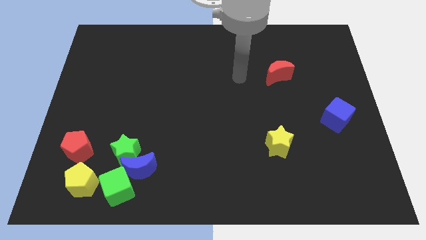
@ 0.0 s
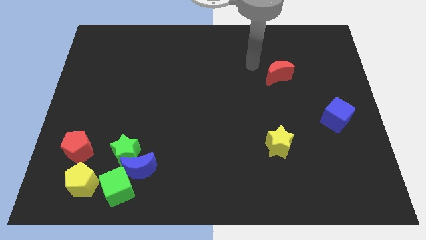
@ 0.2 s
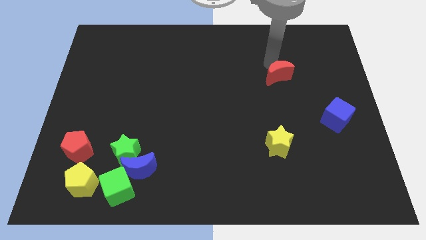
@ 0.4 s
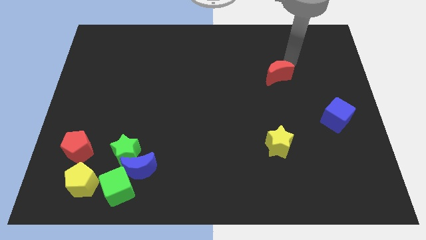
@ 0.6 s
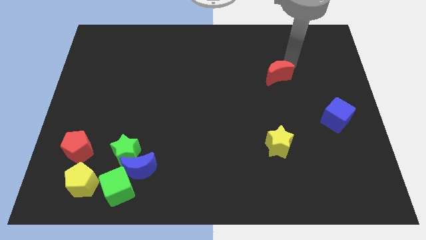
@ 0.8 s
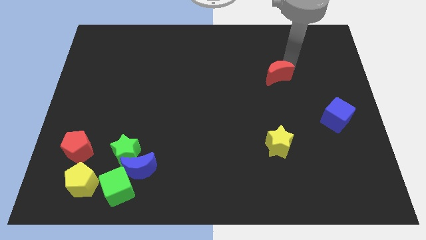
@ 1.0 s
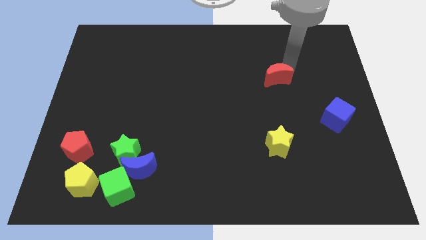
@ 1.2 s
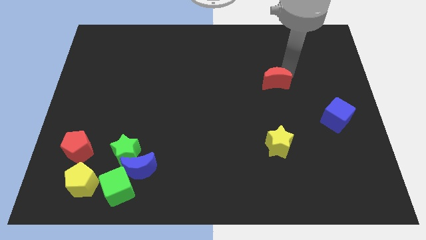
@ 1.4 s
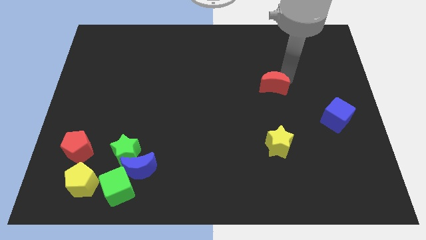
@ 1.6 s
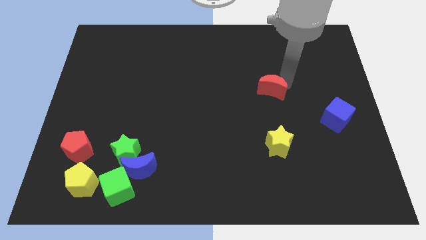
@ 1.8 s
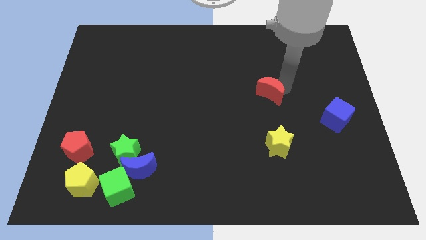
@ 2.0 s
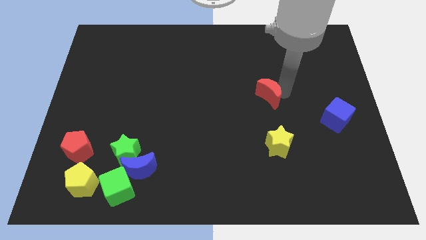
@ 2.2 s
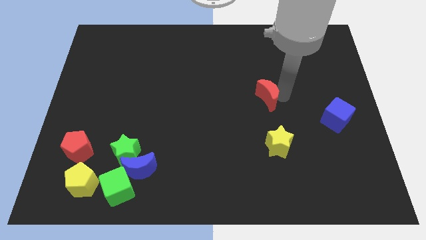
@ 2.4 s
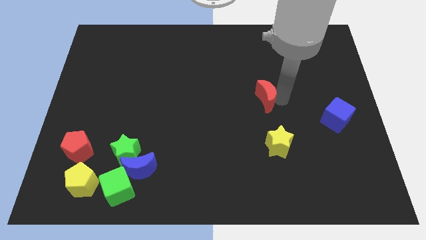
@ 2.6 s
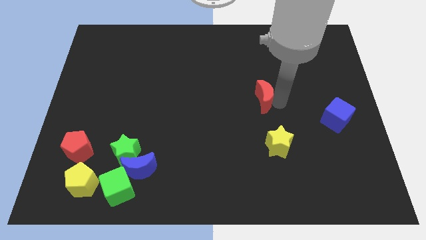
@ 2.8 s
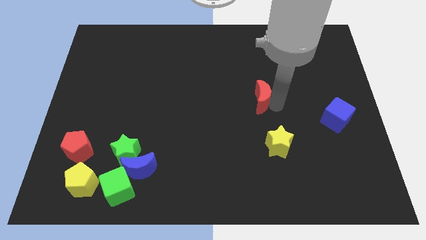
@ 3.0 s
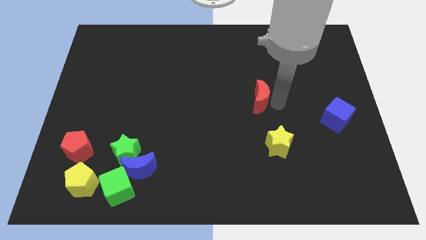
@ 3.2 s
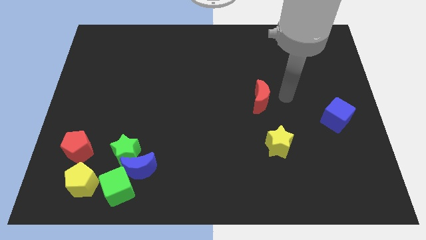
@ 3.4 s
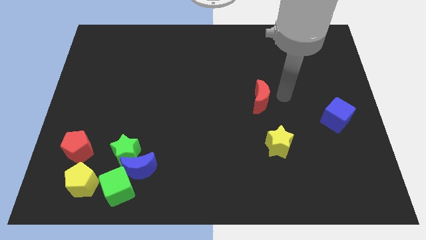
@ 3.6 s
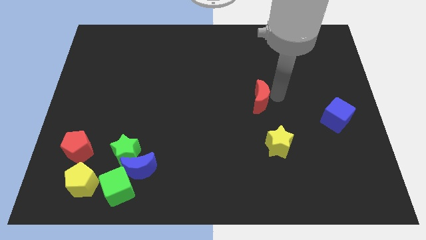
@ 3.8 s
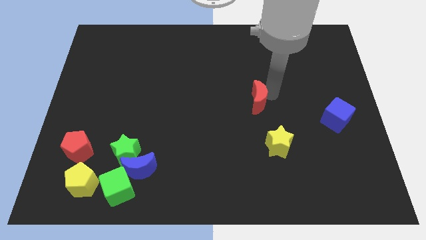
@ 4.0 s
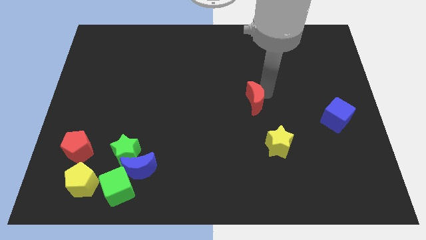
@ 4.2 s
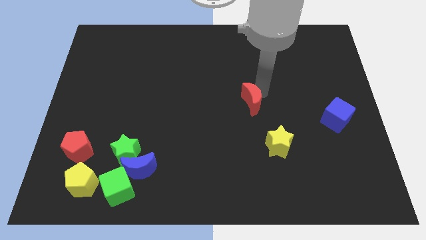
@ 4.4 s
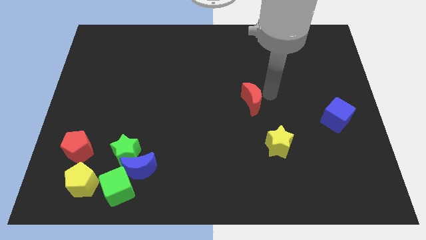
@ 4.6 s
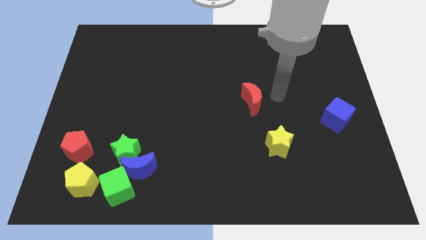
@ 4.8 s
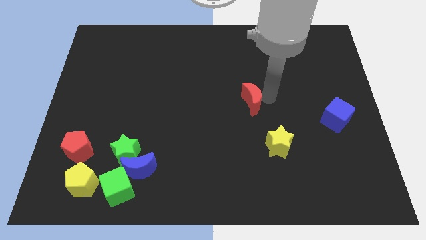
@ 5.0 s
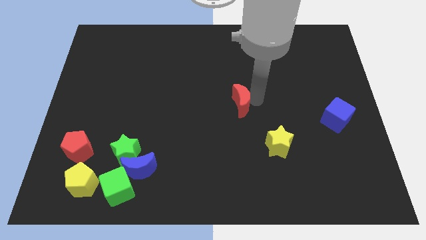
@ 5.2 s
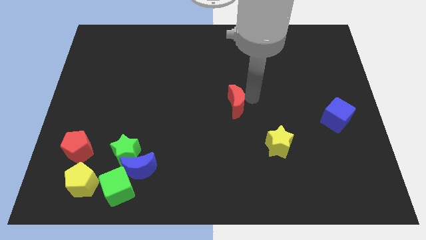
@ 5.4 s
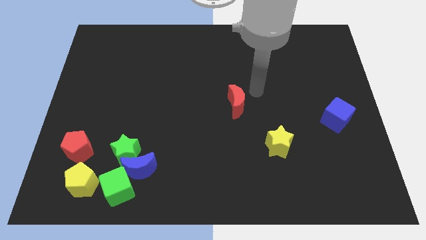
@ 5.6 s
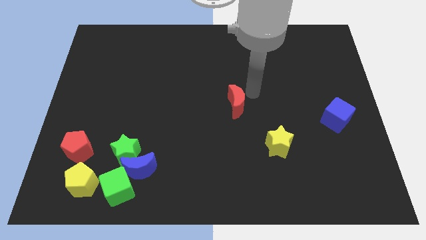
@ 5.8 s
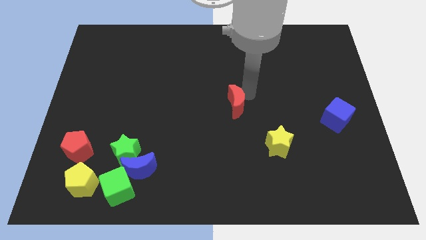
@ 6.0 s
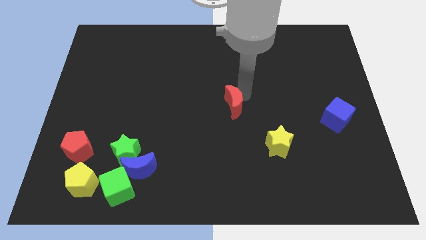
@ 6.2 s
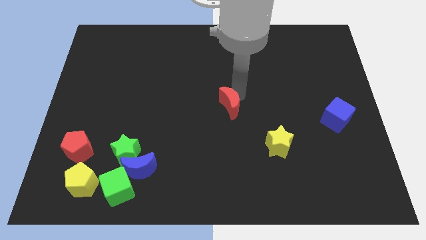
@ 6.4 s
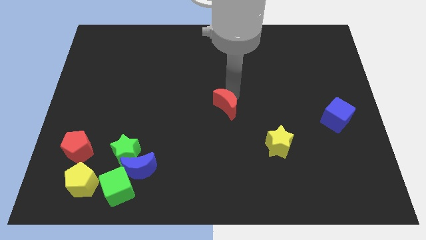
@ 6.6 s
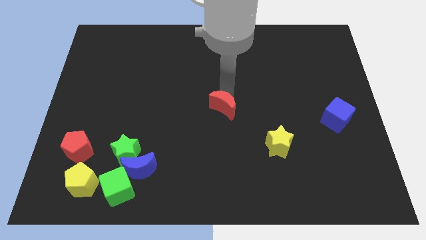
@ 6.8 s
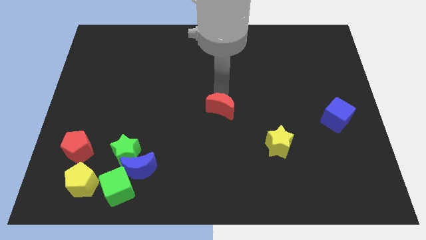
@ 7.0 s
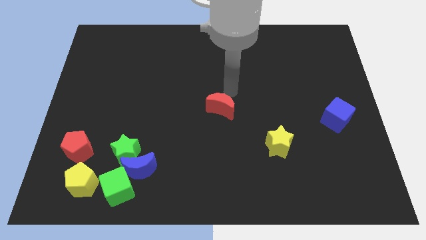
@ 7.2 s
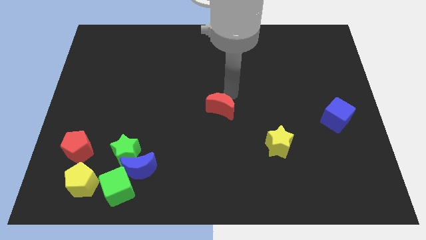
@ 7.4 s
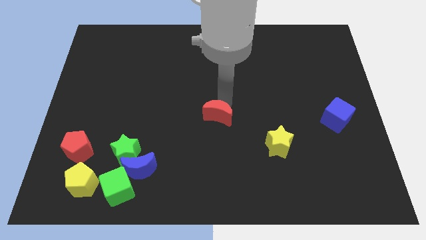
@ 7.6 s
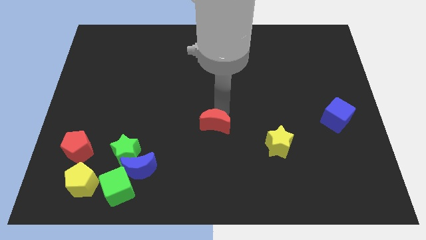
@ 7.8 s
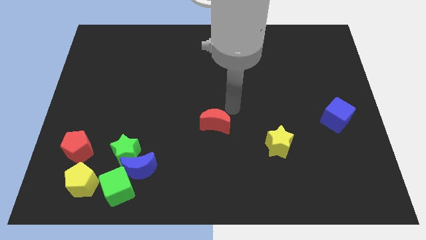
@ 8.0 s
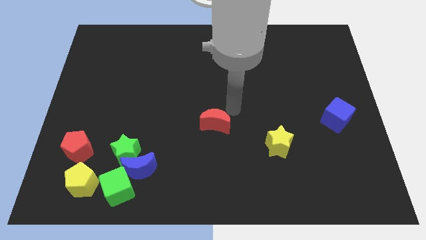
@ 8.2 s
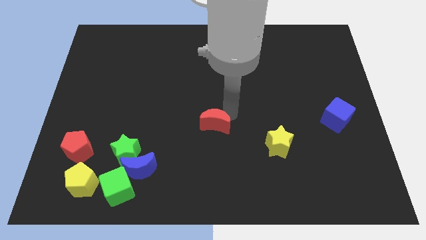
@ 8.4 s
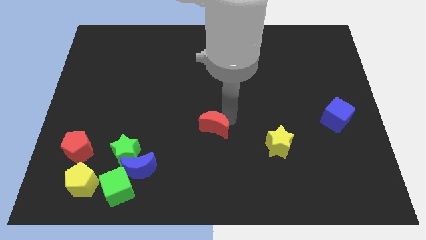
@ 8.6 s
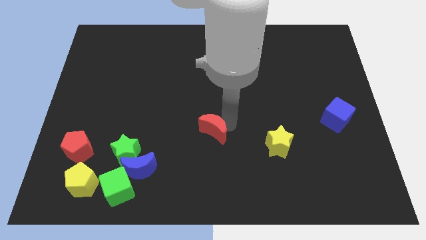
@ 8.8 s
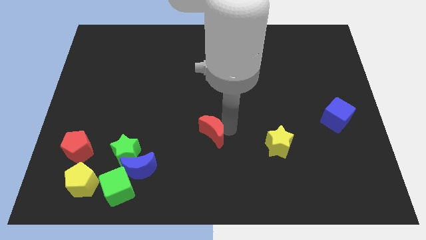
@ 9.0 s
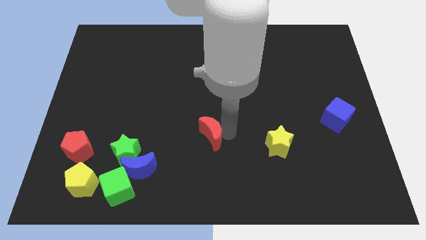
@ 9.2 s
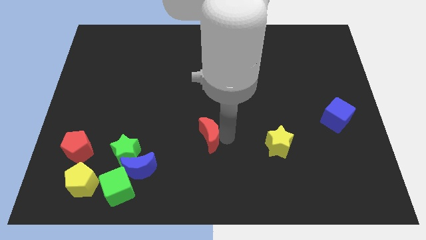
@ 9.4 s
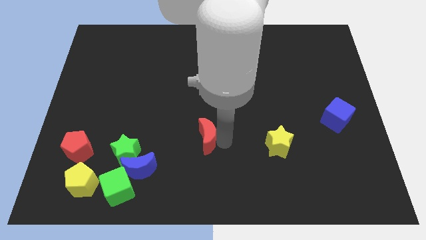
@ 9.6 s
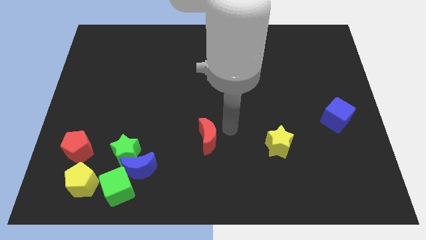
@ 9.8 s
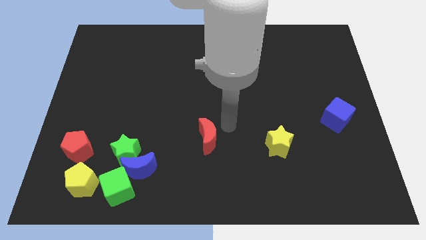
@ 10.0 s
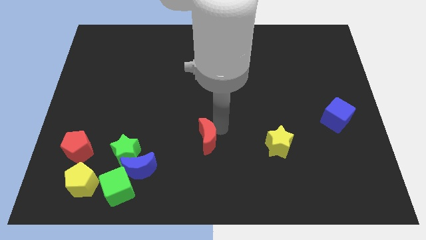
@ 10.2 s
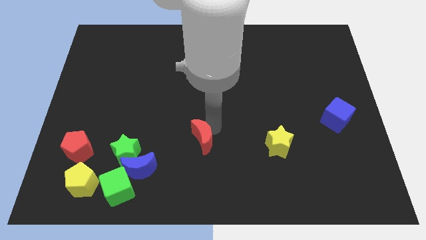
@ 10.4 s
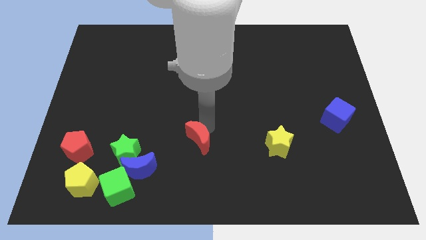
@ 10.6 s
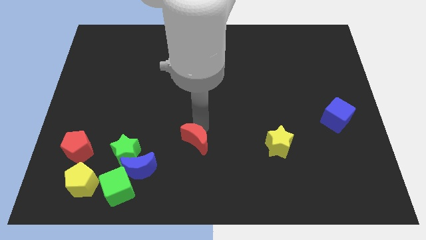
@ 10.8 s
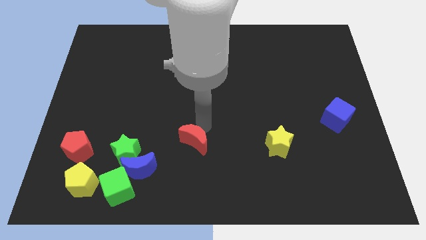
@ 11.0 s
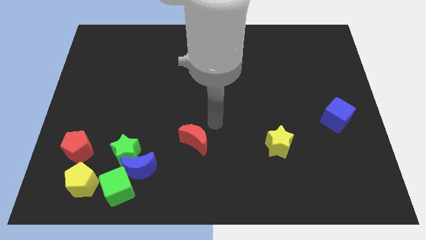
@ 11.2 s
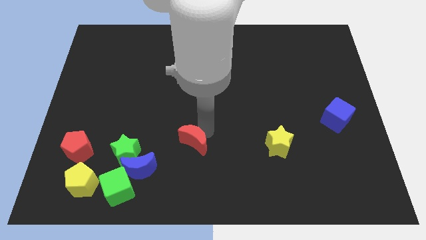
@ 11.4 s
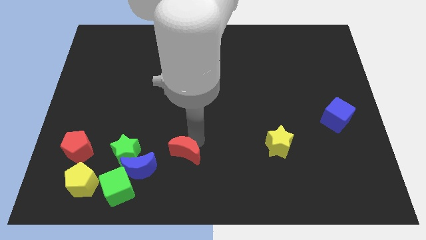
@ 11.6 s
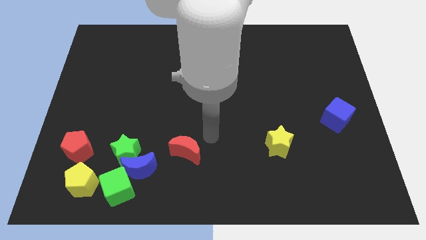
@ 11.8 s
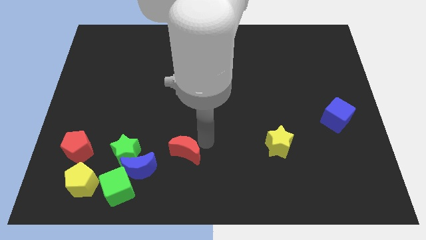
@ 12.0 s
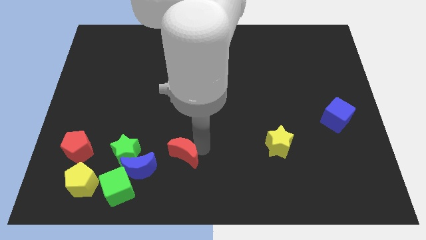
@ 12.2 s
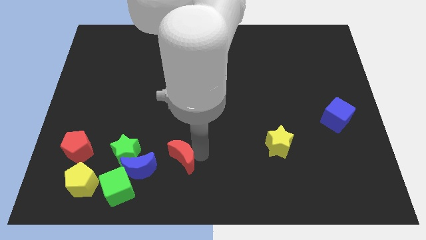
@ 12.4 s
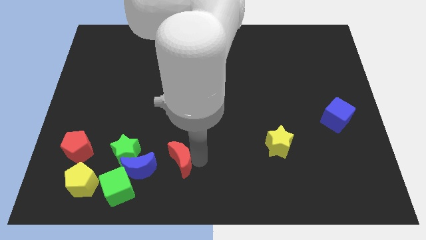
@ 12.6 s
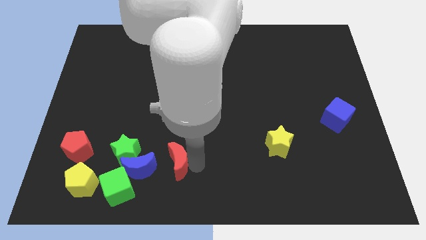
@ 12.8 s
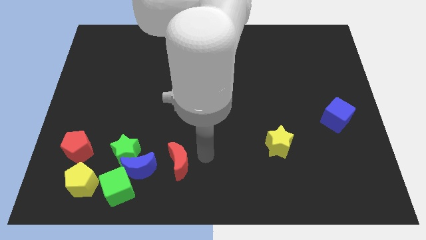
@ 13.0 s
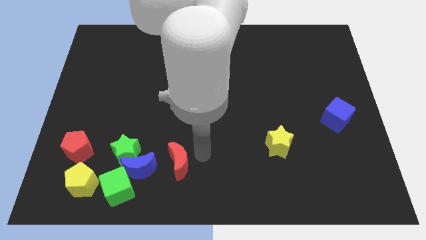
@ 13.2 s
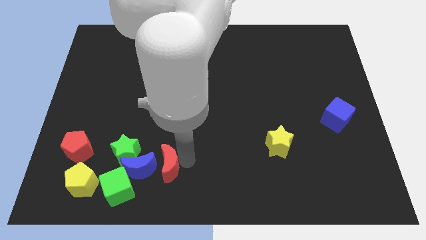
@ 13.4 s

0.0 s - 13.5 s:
slide the red moon to the bottom right side of the green star

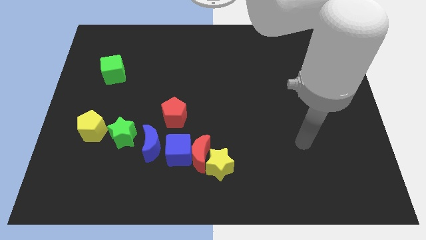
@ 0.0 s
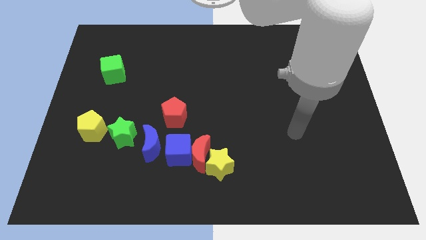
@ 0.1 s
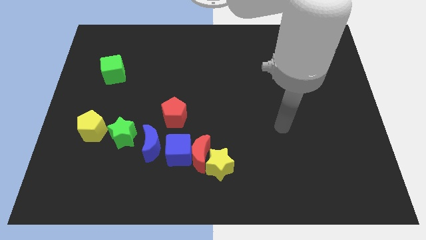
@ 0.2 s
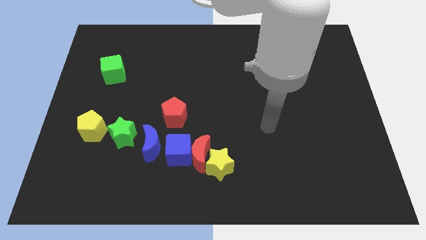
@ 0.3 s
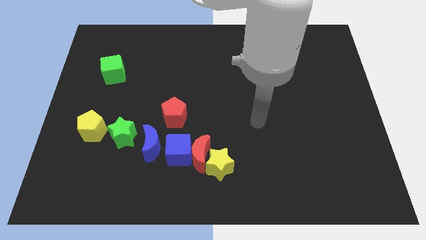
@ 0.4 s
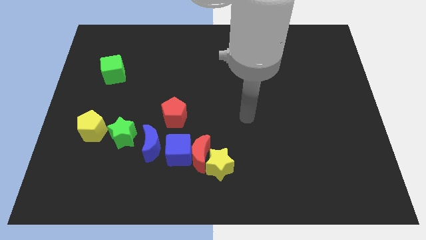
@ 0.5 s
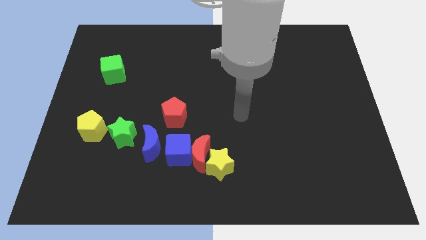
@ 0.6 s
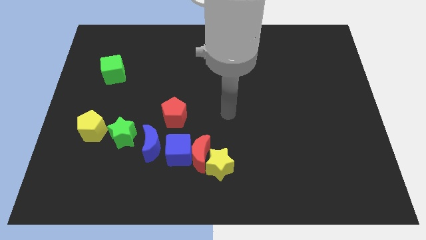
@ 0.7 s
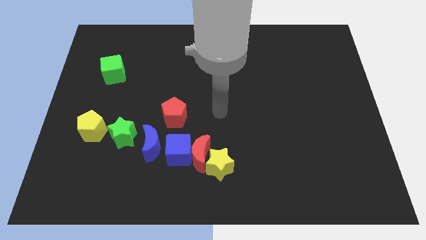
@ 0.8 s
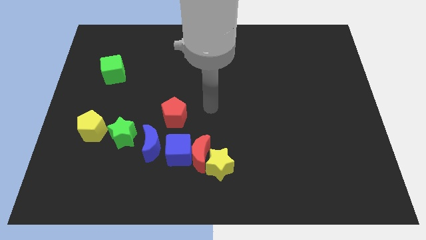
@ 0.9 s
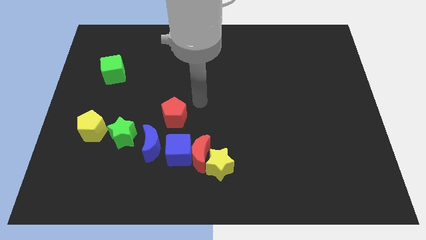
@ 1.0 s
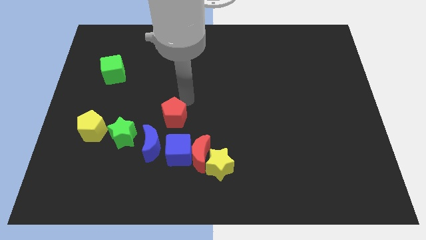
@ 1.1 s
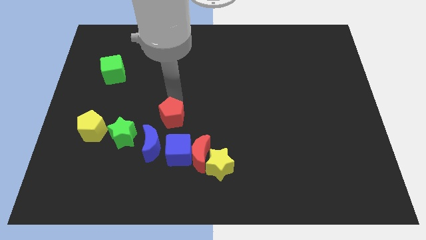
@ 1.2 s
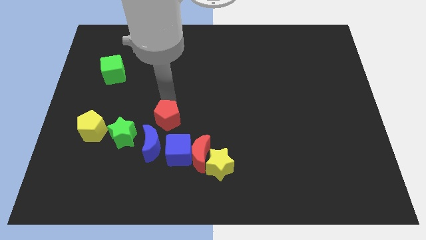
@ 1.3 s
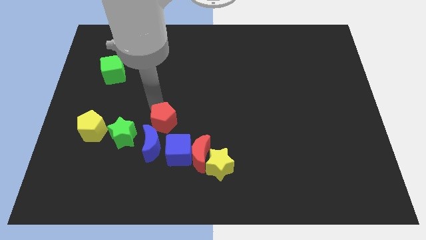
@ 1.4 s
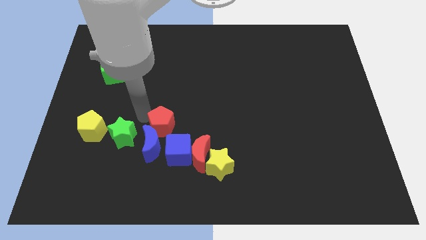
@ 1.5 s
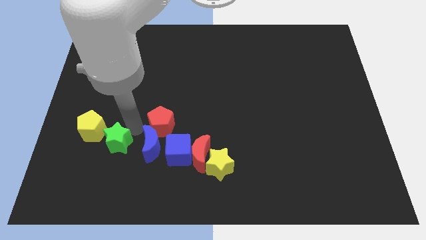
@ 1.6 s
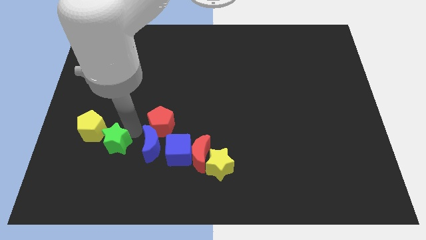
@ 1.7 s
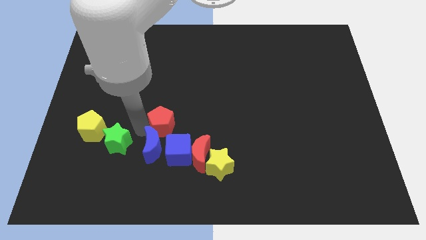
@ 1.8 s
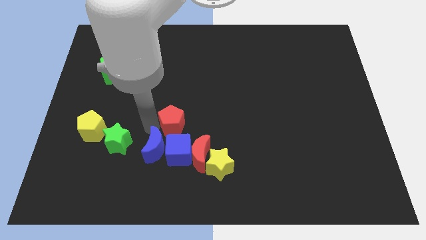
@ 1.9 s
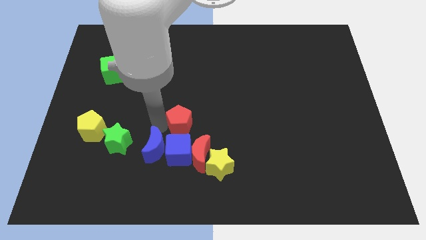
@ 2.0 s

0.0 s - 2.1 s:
put the red pentagon above the red moon
